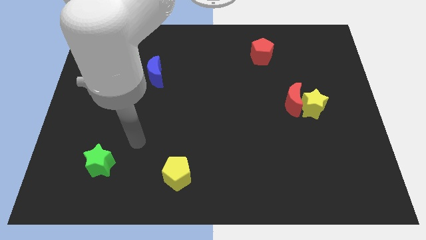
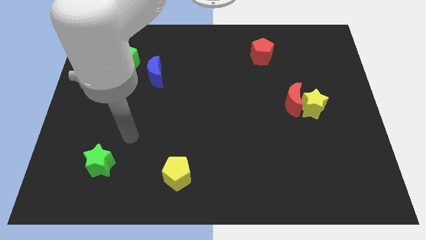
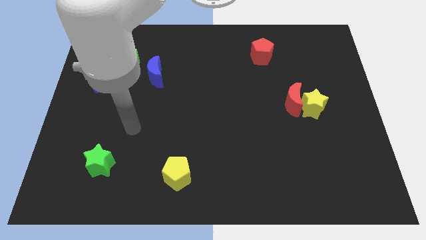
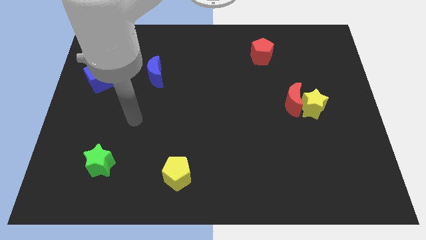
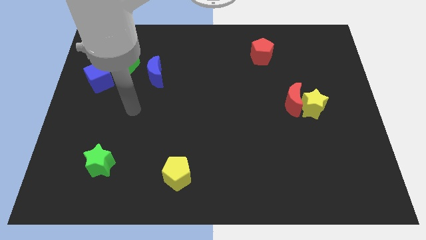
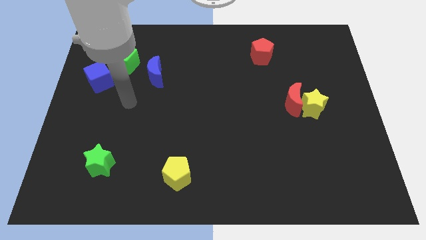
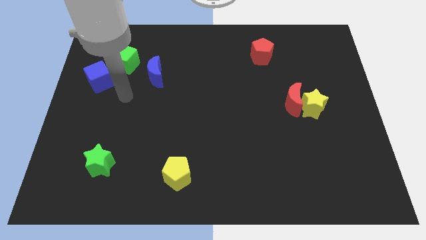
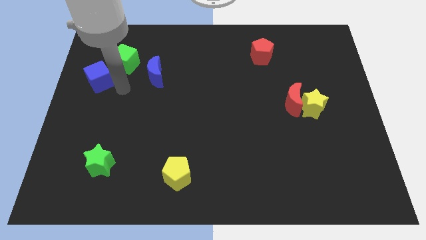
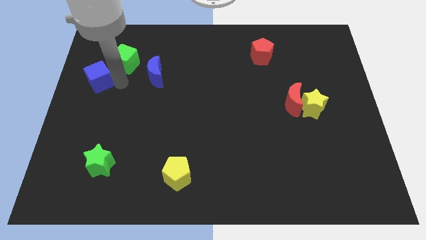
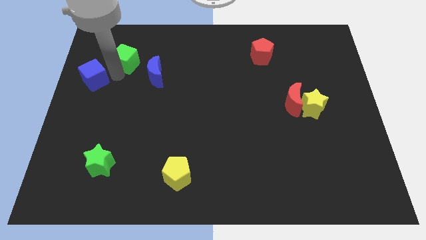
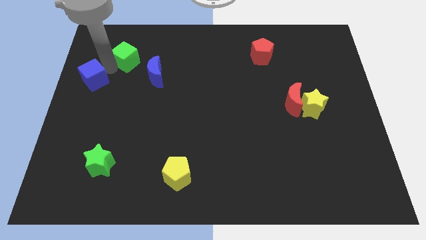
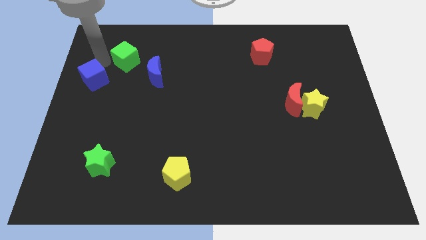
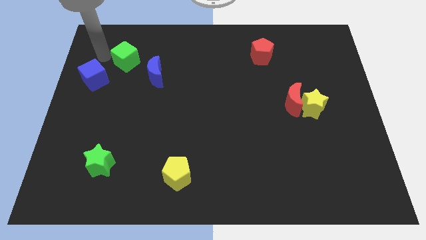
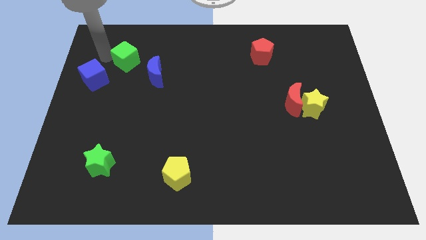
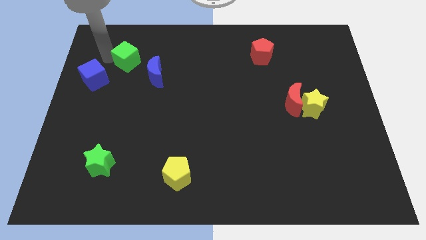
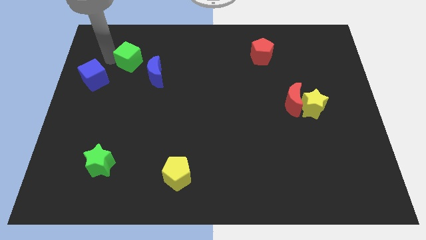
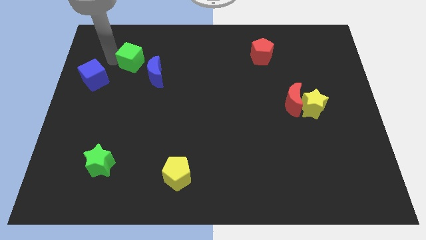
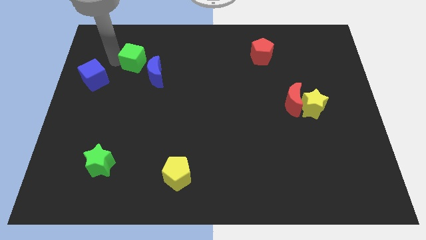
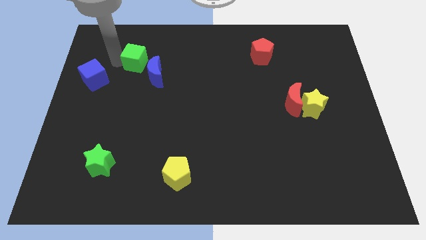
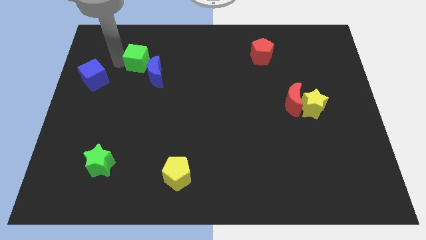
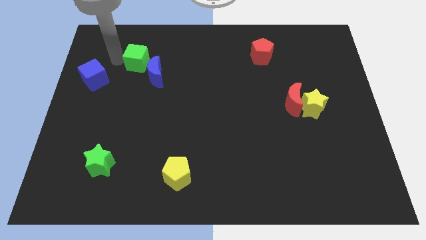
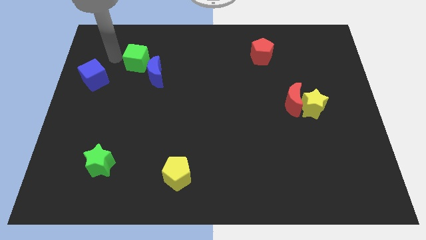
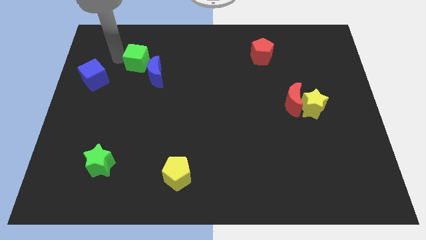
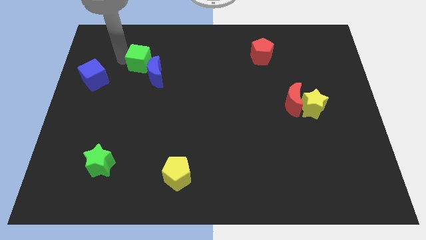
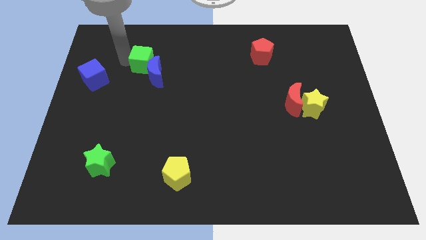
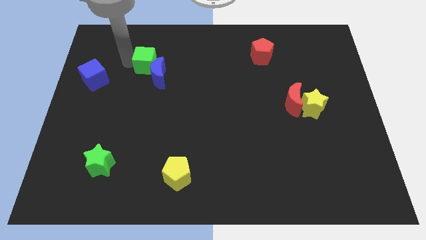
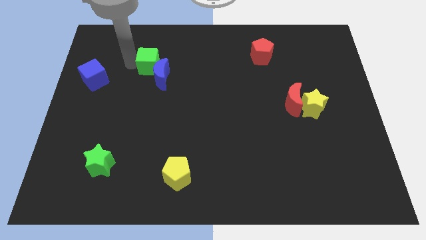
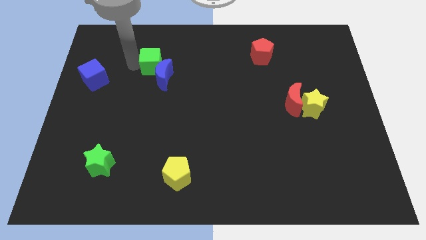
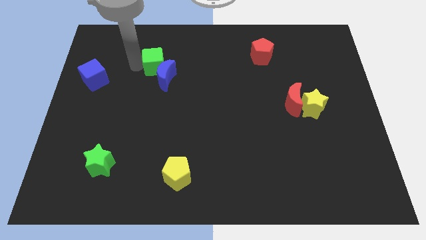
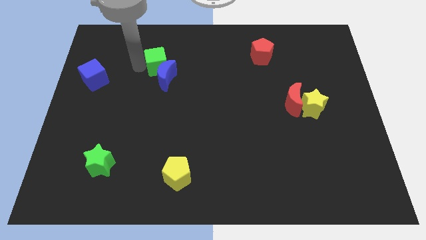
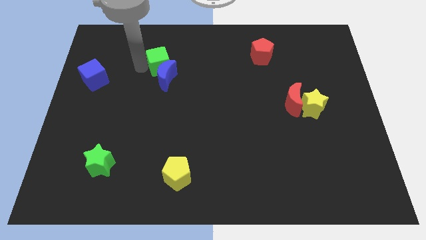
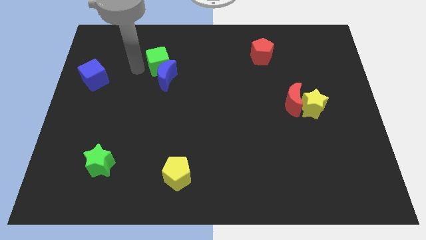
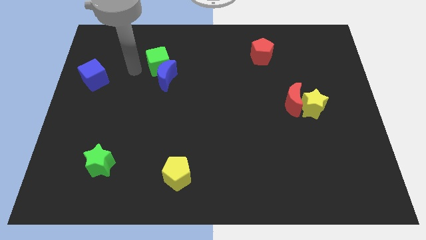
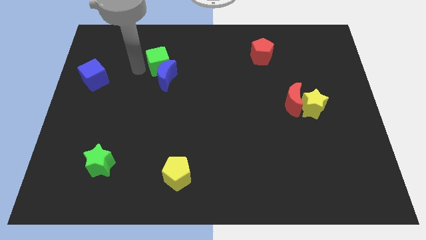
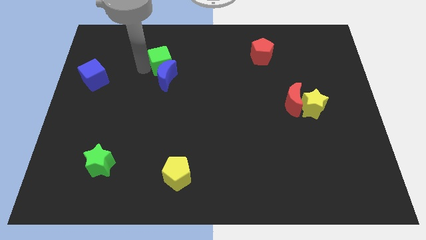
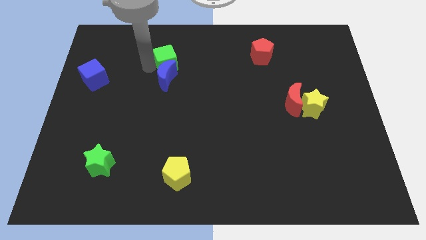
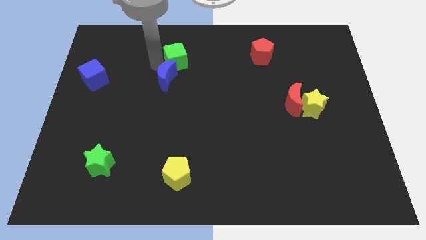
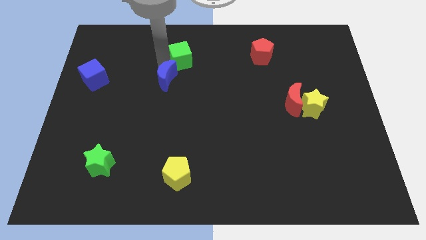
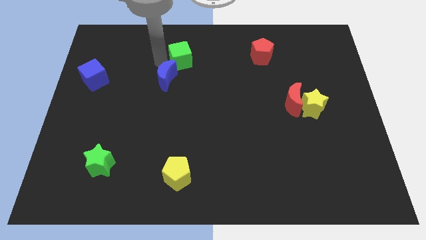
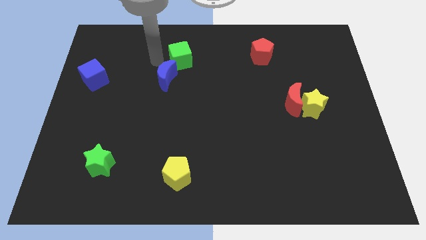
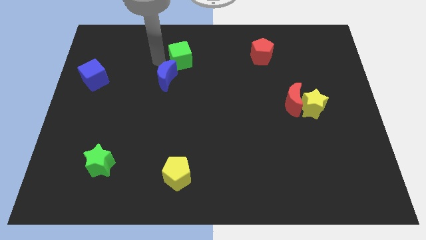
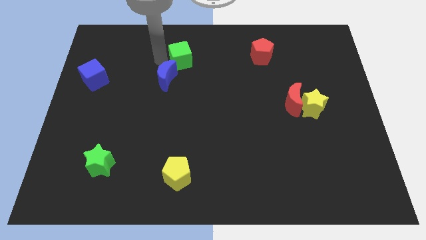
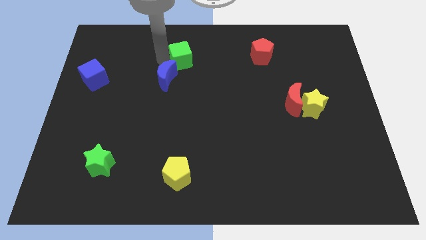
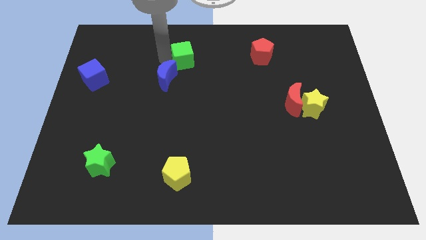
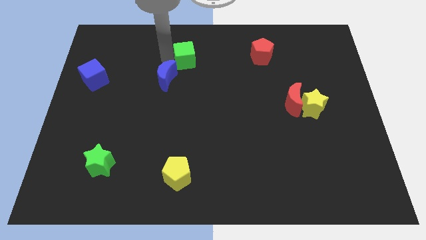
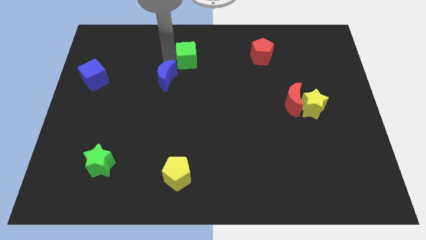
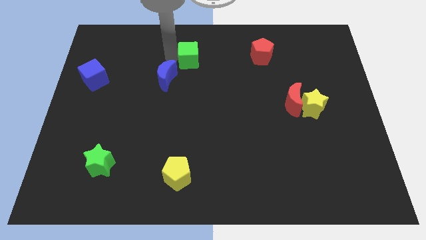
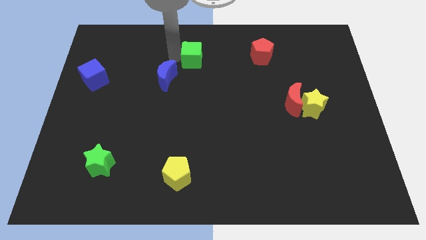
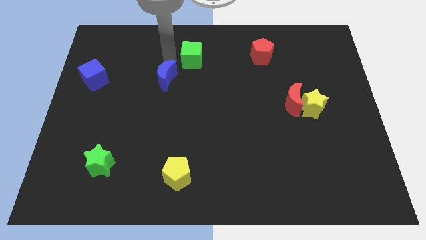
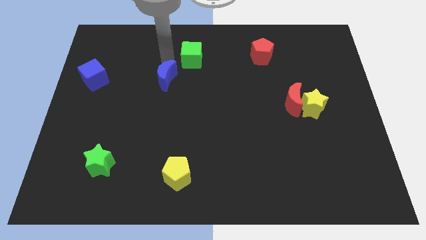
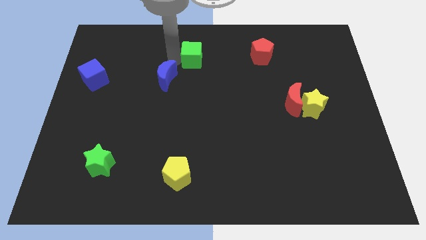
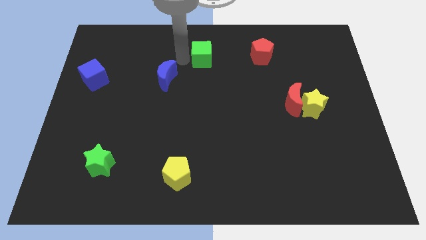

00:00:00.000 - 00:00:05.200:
push the green cube to the left of the red pentagon

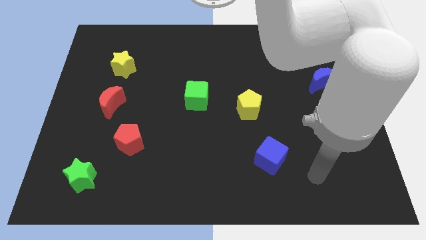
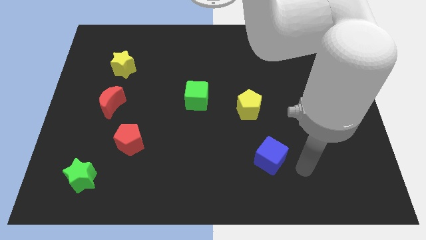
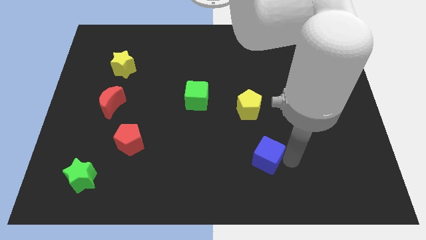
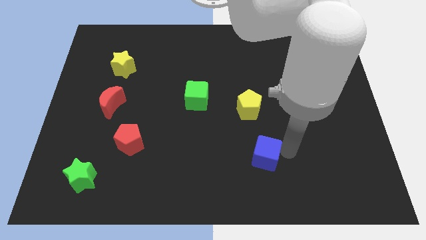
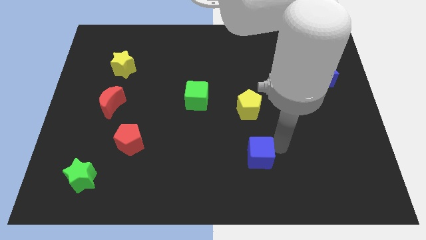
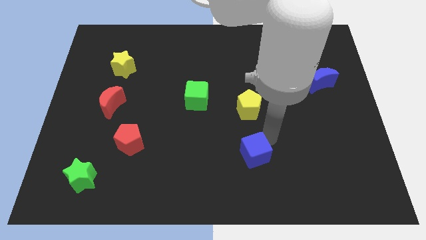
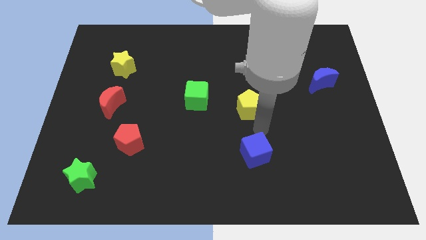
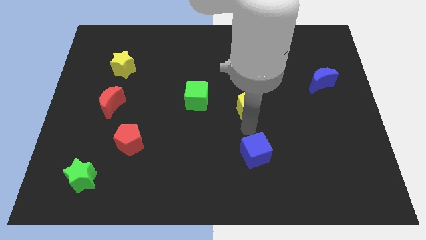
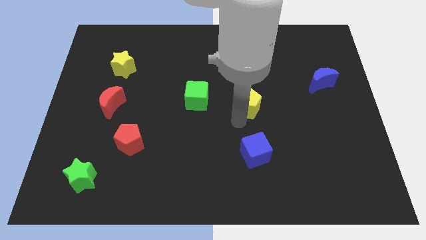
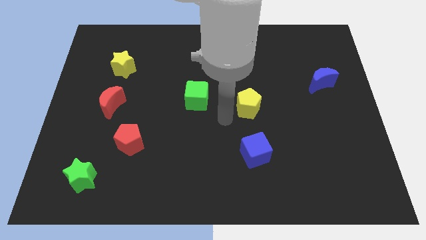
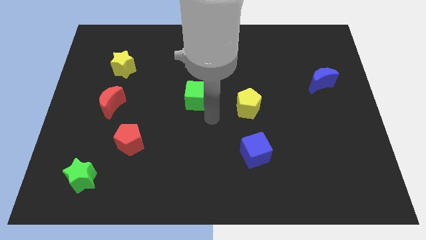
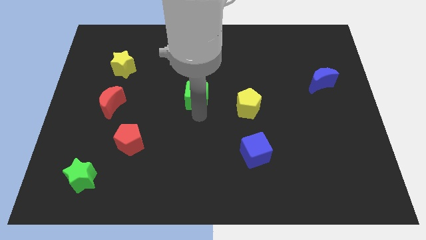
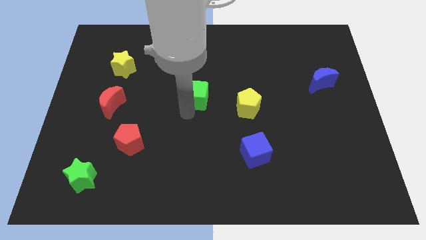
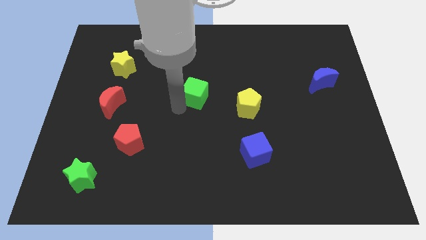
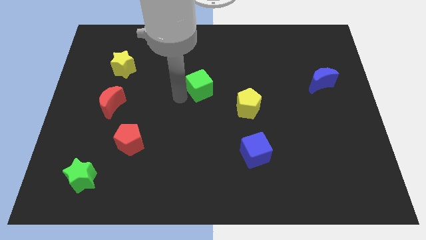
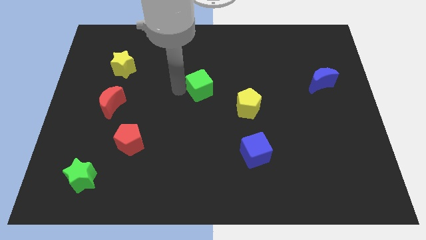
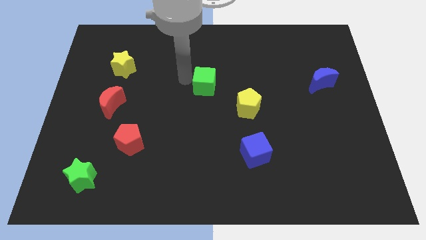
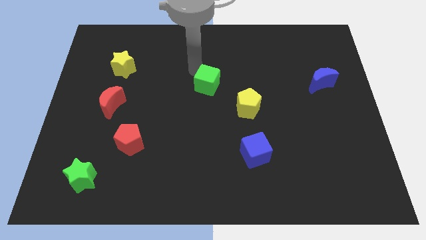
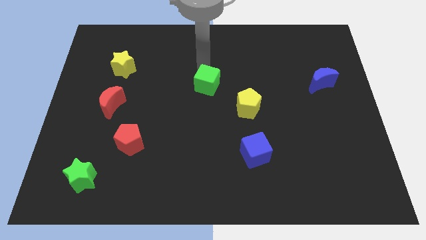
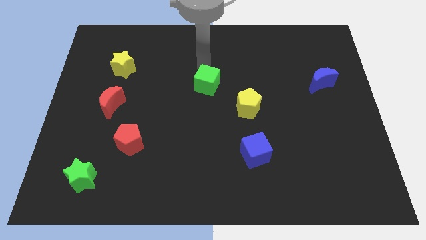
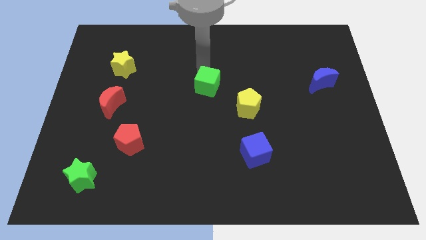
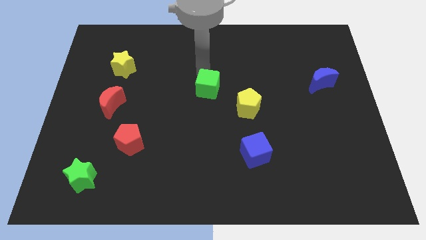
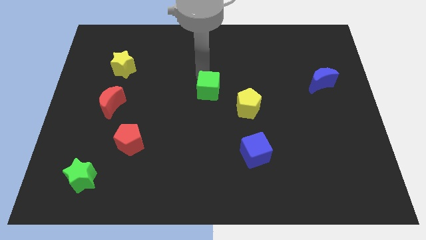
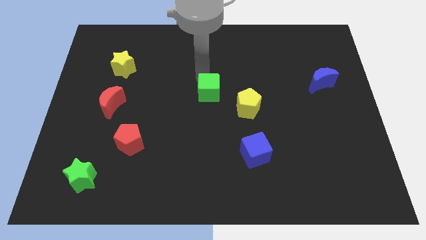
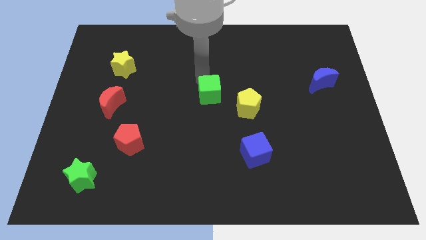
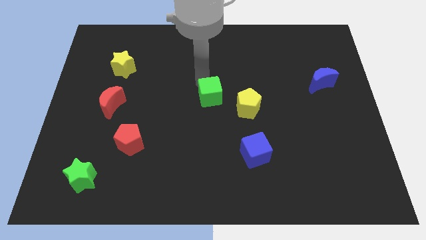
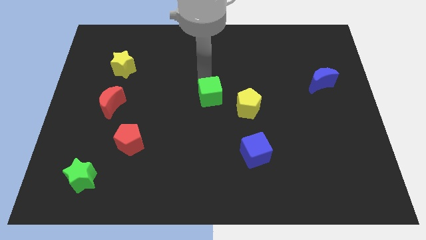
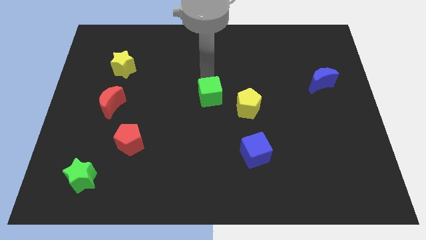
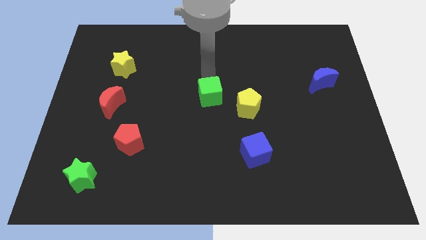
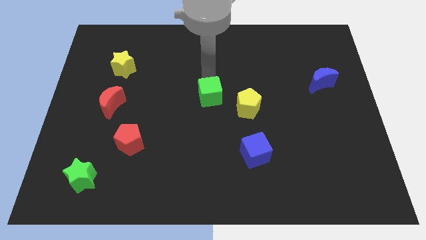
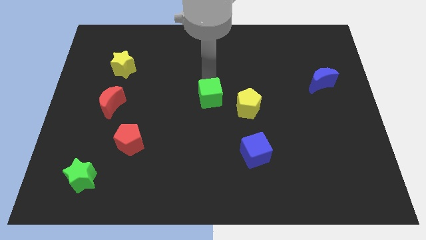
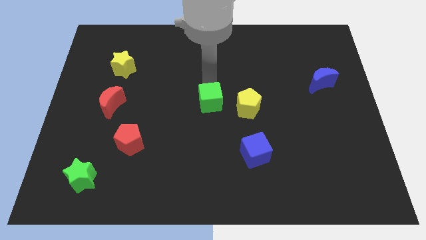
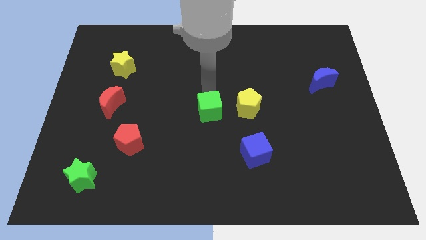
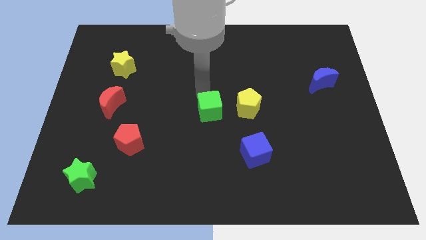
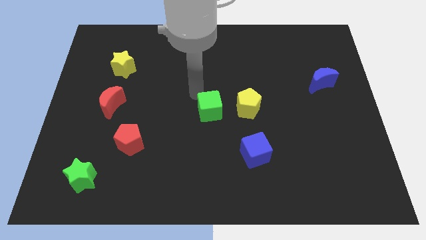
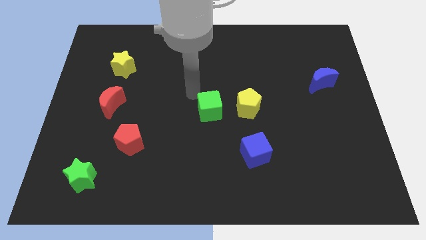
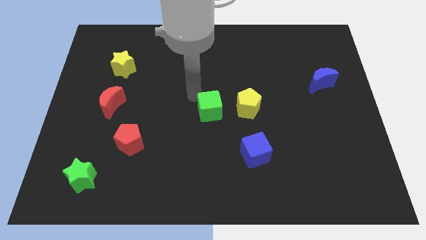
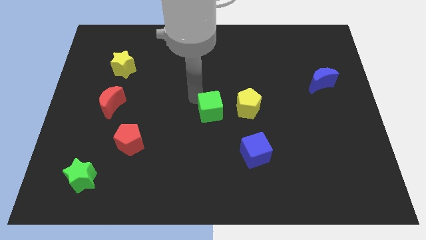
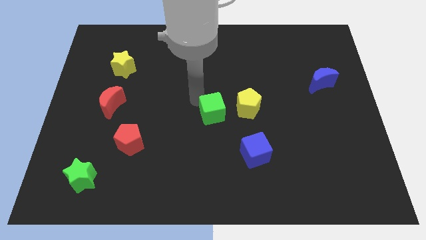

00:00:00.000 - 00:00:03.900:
push the green cube to the bottom left of the yellow pentagon
